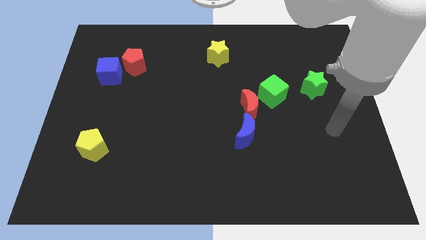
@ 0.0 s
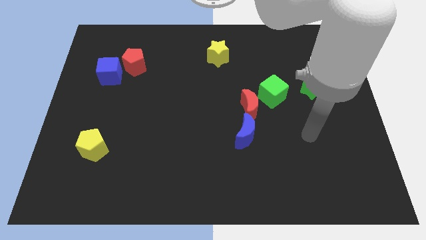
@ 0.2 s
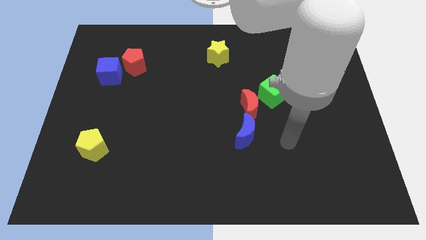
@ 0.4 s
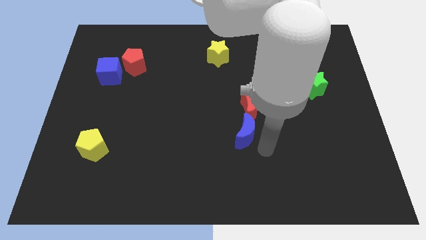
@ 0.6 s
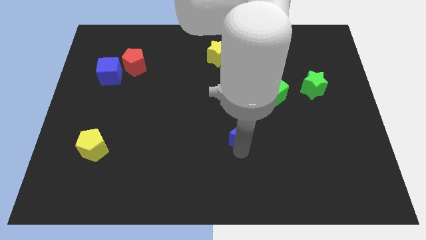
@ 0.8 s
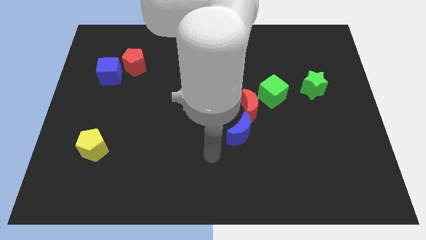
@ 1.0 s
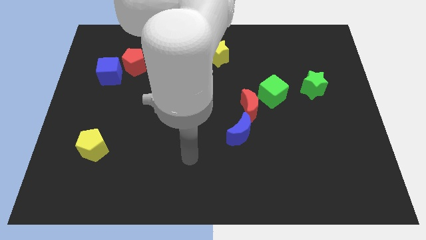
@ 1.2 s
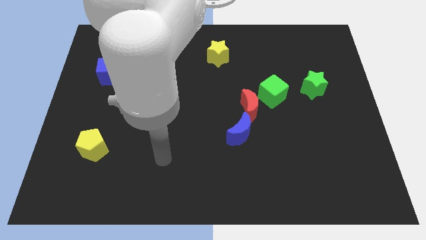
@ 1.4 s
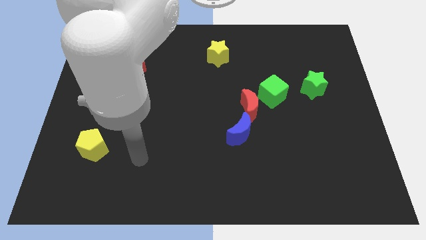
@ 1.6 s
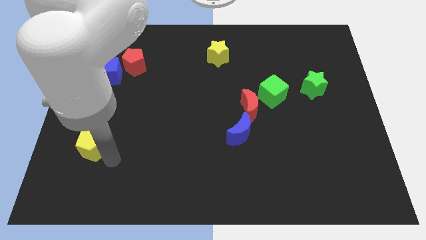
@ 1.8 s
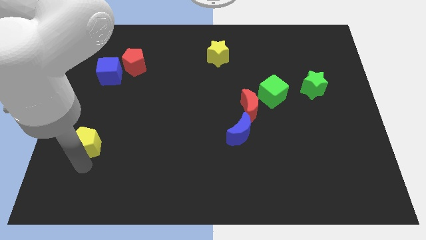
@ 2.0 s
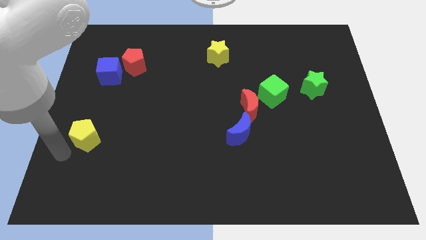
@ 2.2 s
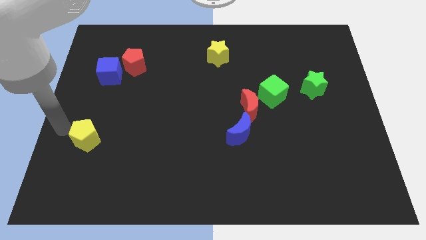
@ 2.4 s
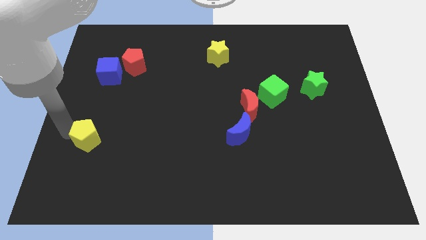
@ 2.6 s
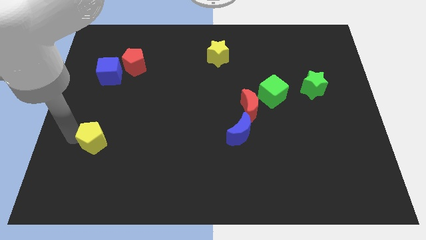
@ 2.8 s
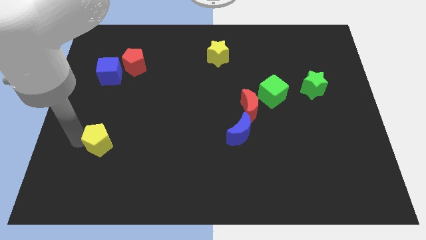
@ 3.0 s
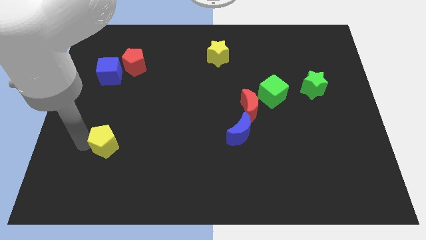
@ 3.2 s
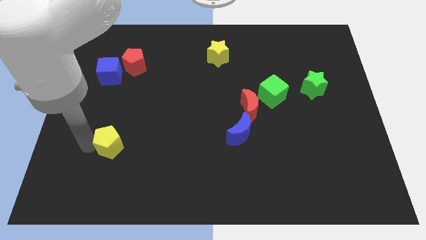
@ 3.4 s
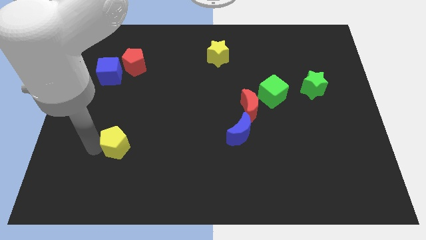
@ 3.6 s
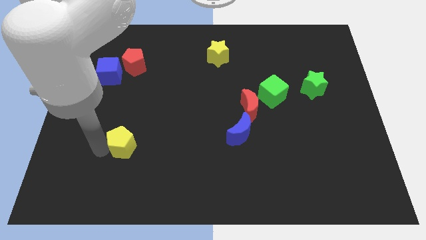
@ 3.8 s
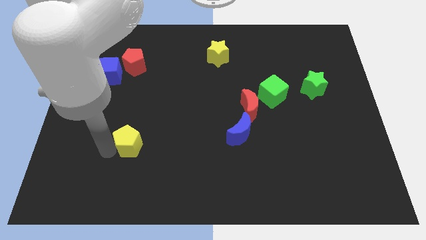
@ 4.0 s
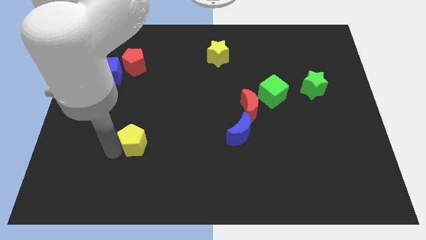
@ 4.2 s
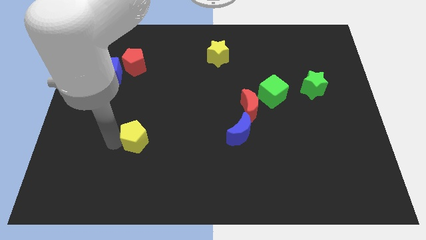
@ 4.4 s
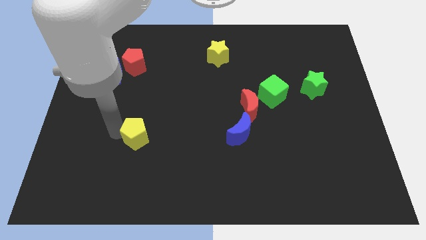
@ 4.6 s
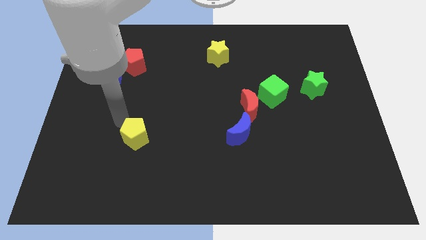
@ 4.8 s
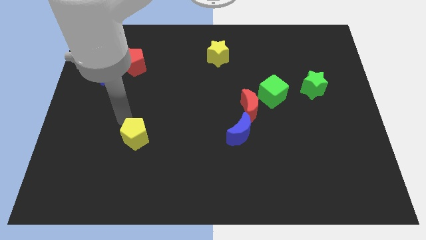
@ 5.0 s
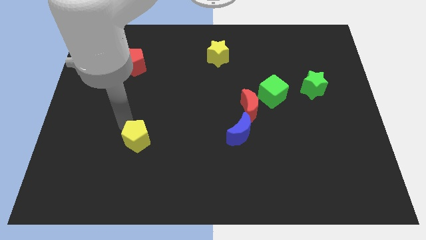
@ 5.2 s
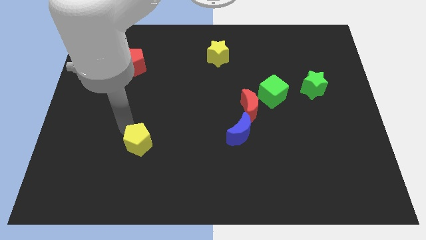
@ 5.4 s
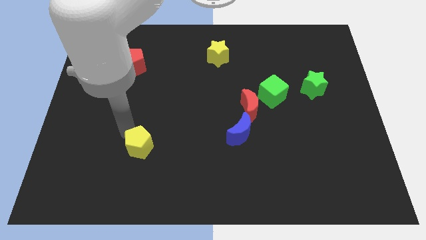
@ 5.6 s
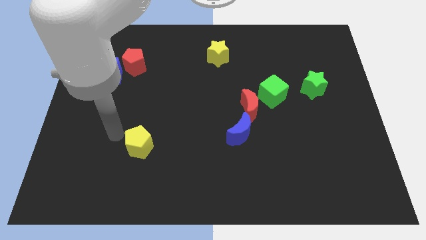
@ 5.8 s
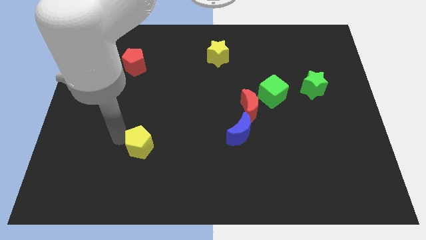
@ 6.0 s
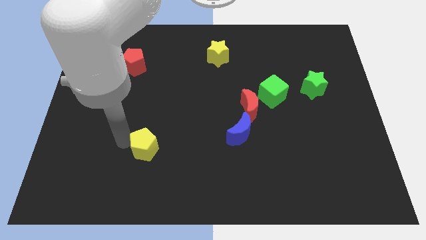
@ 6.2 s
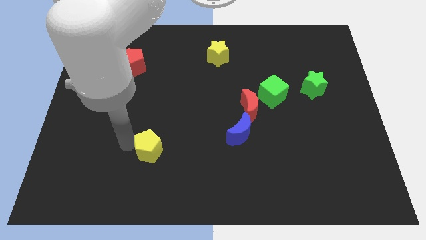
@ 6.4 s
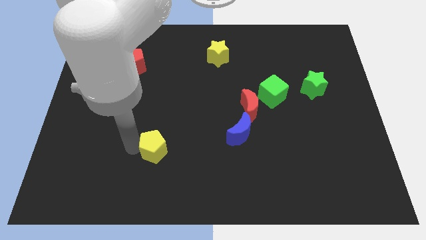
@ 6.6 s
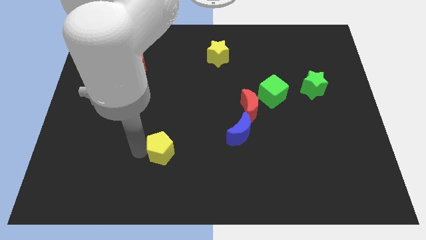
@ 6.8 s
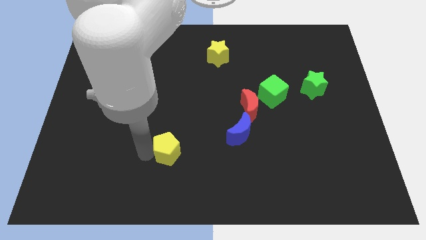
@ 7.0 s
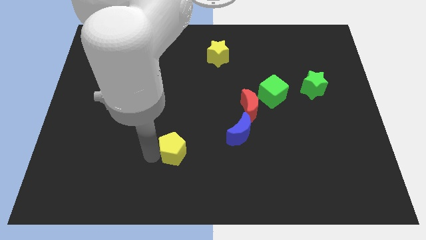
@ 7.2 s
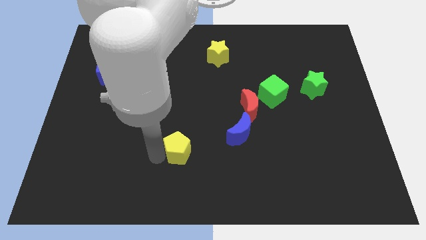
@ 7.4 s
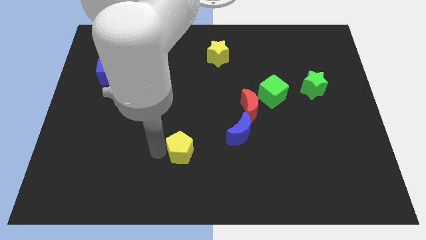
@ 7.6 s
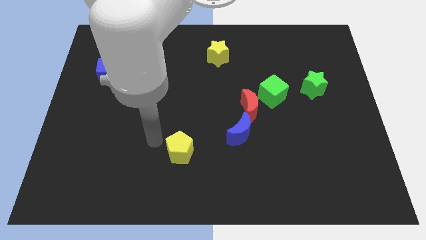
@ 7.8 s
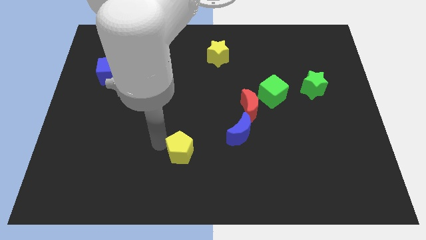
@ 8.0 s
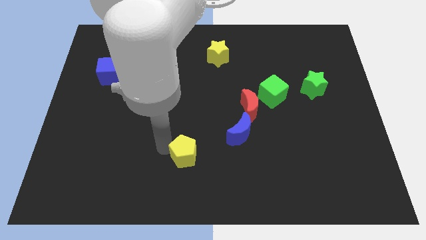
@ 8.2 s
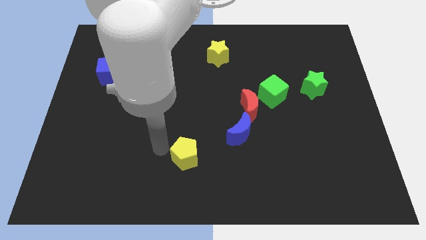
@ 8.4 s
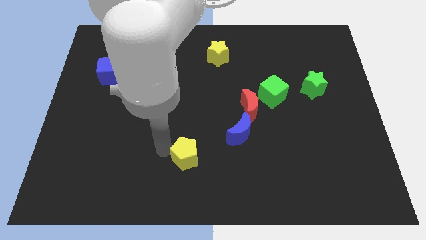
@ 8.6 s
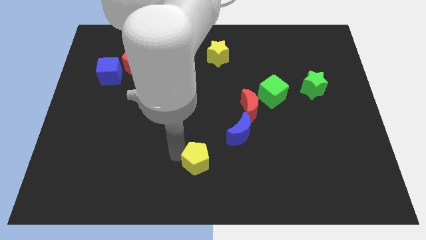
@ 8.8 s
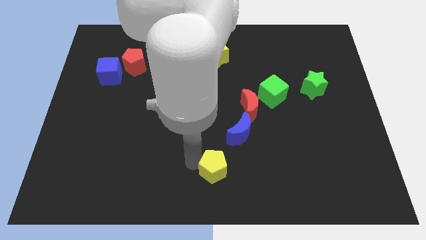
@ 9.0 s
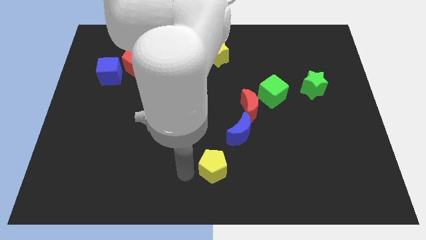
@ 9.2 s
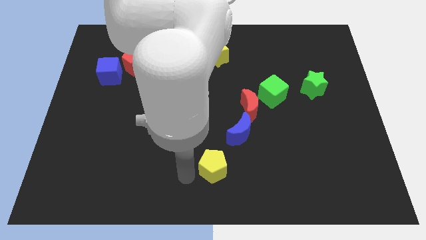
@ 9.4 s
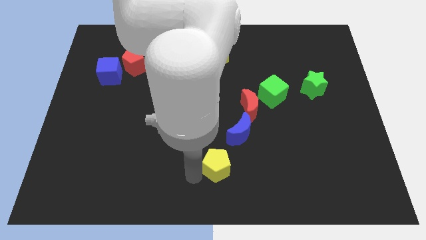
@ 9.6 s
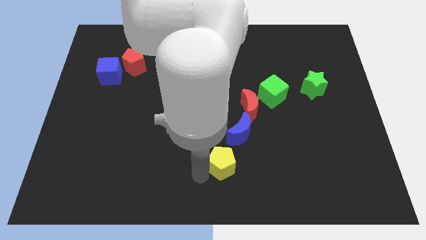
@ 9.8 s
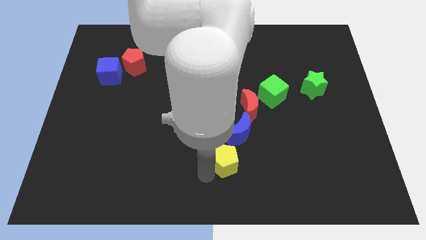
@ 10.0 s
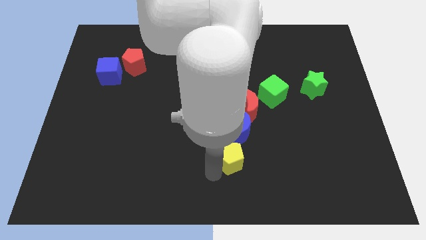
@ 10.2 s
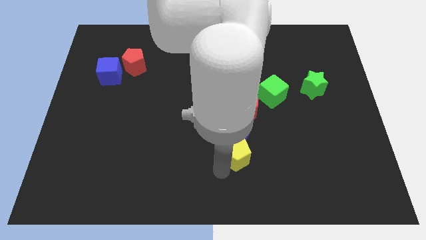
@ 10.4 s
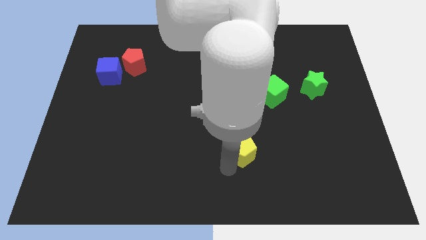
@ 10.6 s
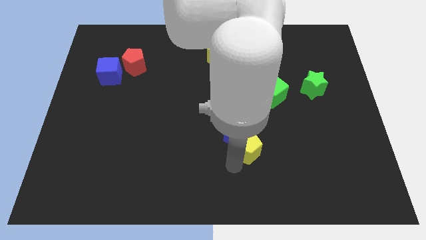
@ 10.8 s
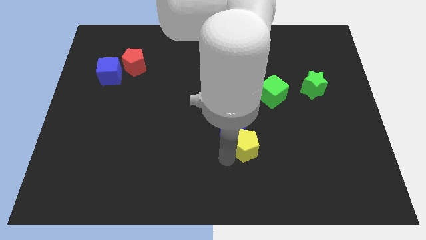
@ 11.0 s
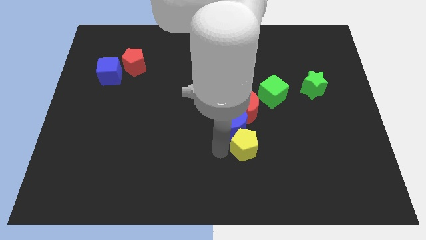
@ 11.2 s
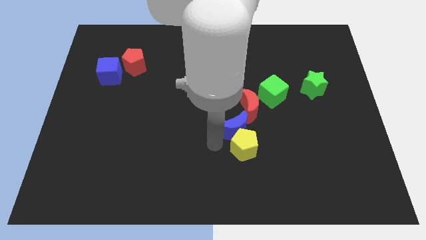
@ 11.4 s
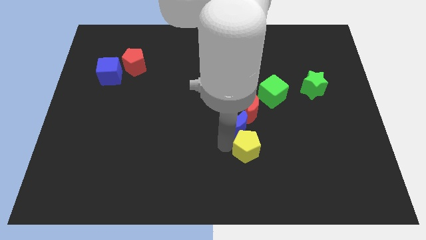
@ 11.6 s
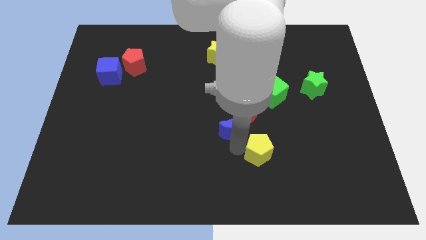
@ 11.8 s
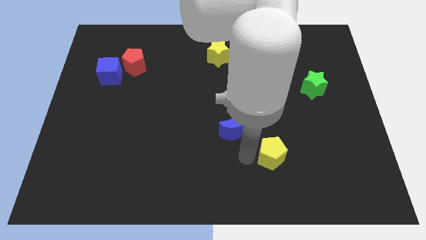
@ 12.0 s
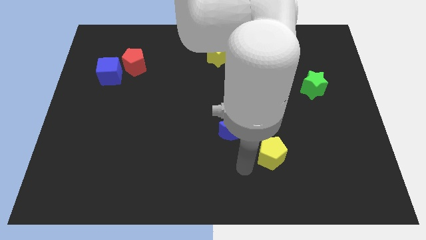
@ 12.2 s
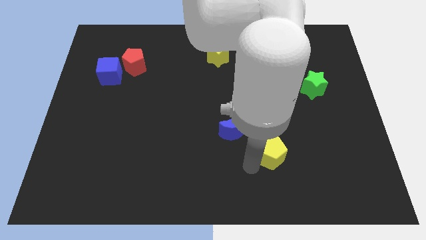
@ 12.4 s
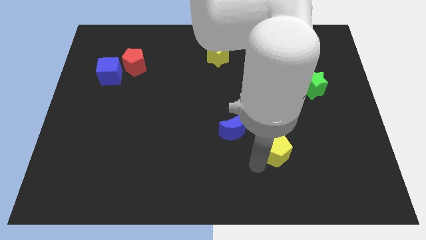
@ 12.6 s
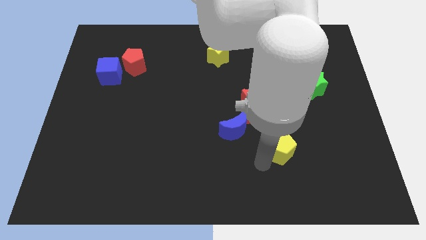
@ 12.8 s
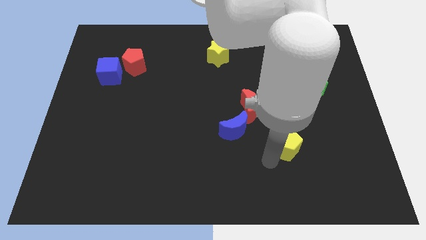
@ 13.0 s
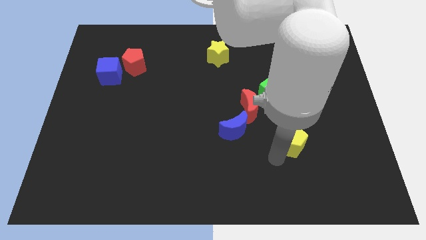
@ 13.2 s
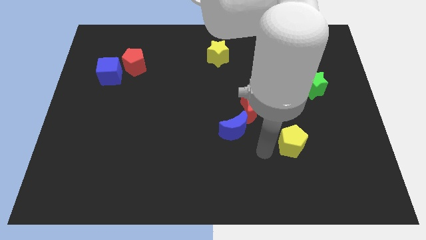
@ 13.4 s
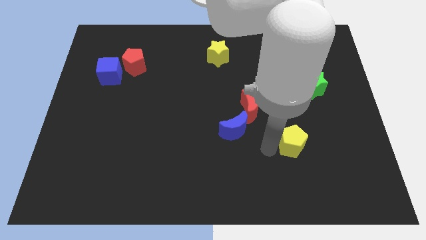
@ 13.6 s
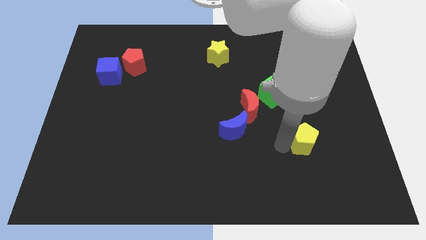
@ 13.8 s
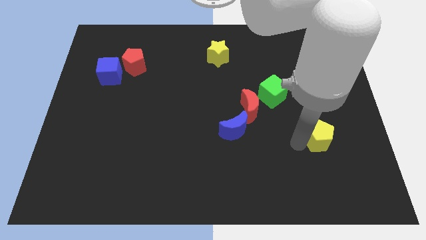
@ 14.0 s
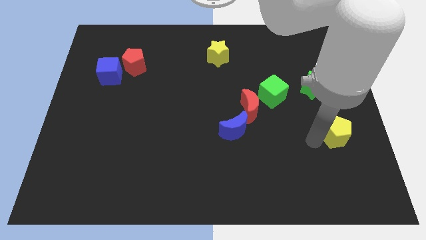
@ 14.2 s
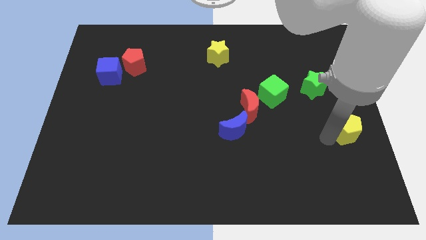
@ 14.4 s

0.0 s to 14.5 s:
push the yellow pentagon to the right side of the board
